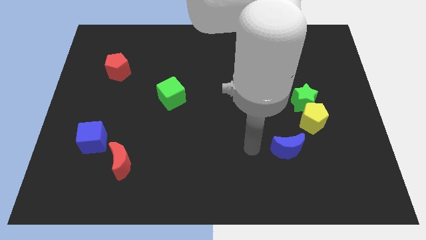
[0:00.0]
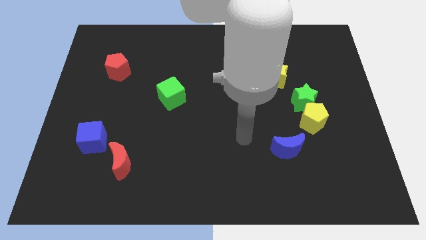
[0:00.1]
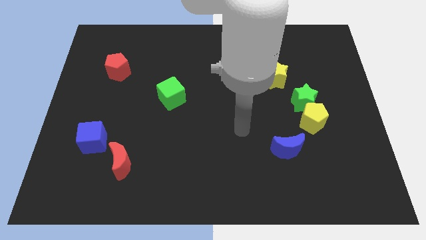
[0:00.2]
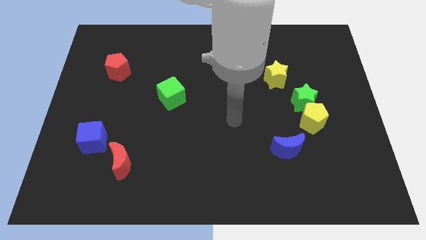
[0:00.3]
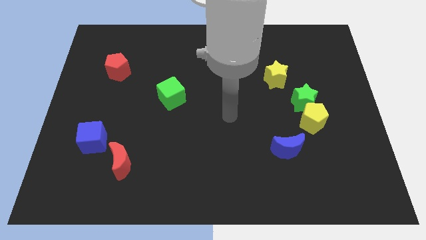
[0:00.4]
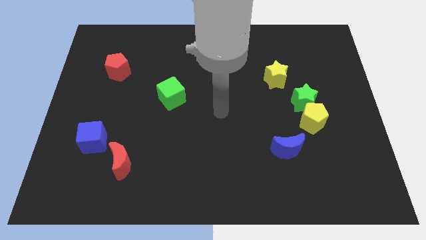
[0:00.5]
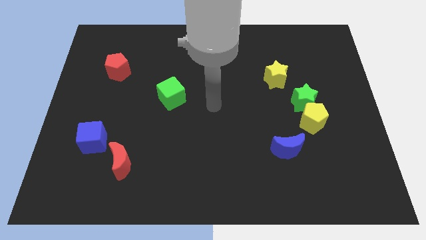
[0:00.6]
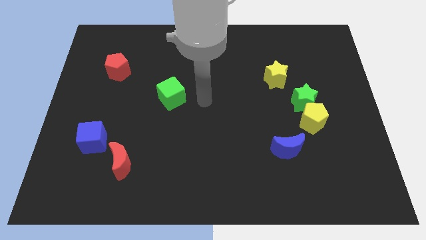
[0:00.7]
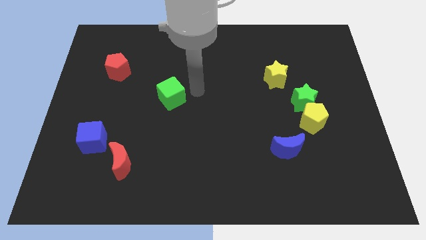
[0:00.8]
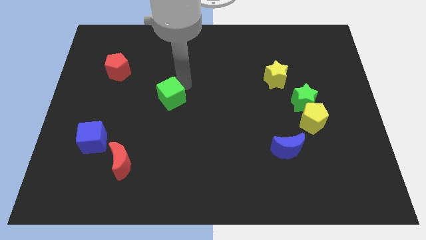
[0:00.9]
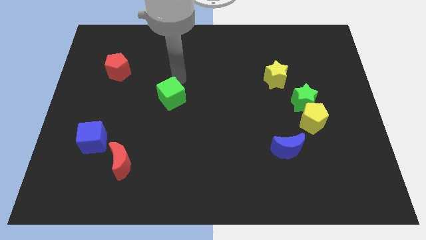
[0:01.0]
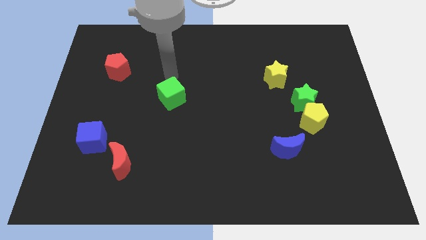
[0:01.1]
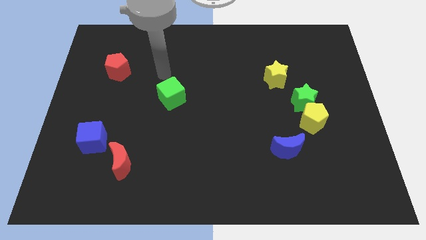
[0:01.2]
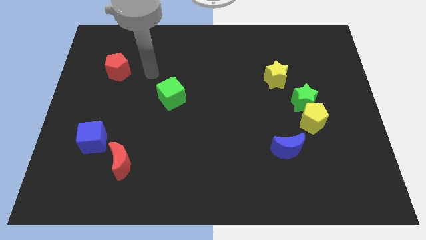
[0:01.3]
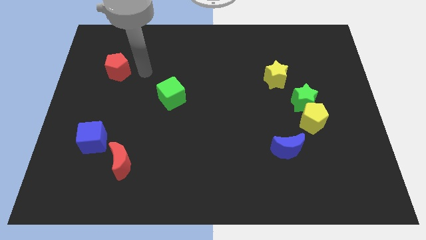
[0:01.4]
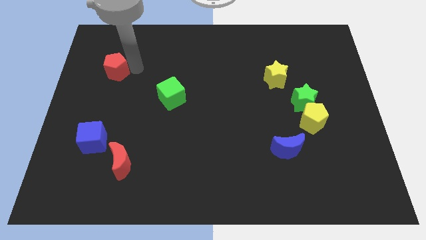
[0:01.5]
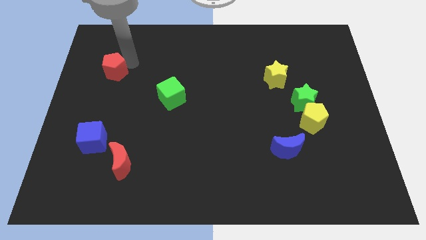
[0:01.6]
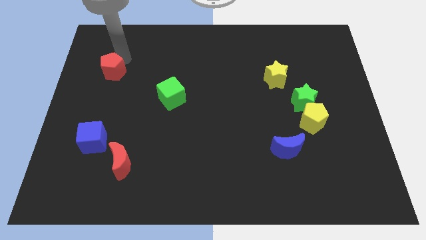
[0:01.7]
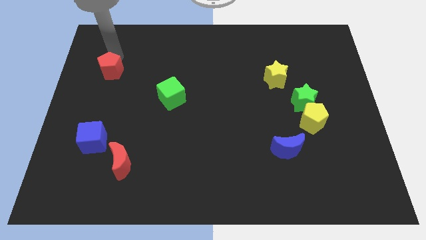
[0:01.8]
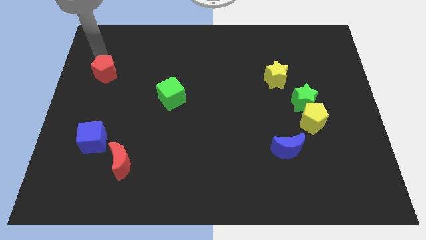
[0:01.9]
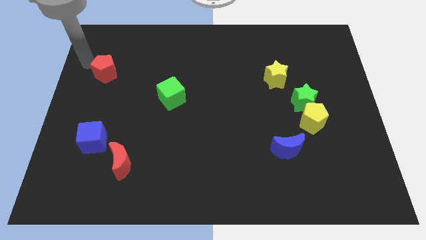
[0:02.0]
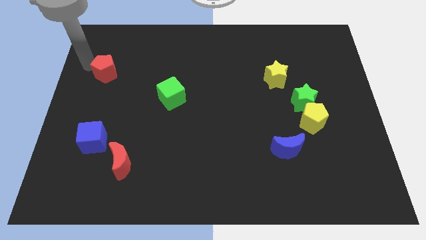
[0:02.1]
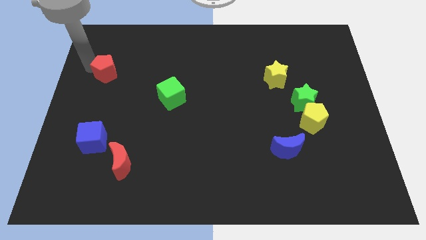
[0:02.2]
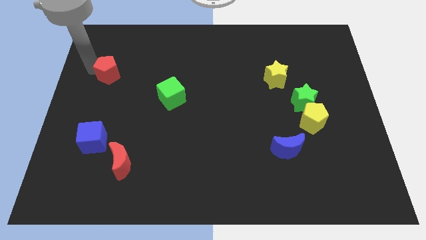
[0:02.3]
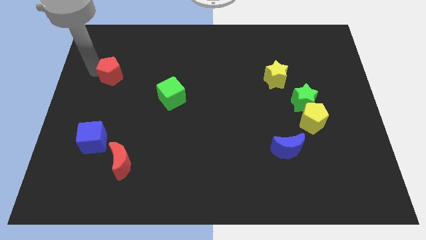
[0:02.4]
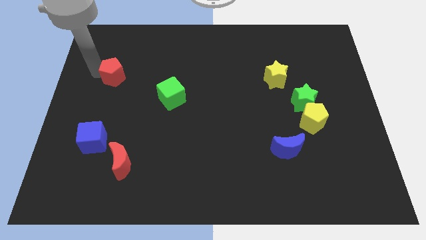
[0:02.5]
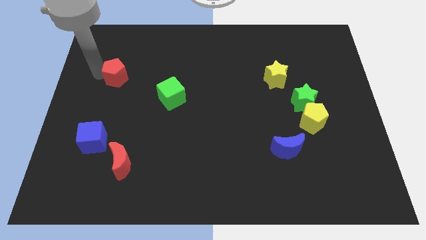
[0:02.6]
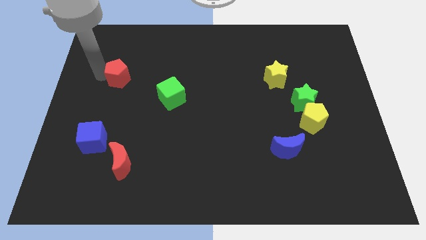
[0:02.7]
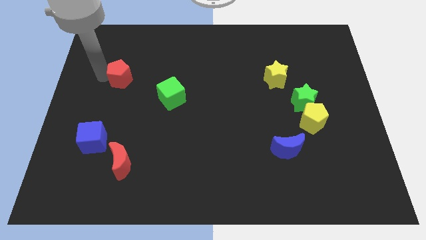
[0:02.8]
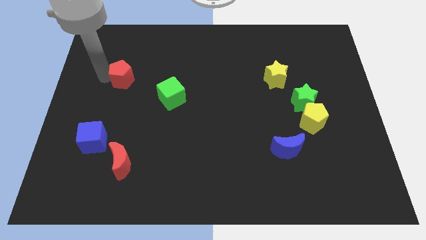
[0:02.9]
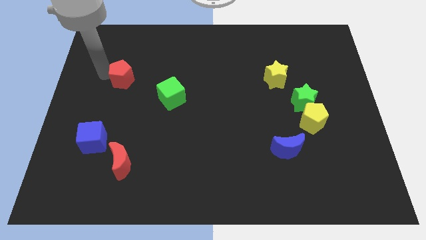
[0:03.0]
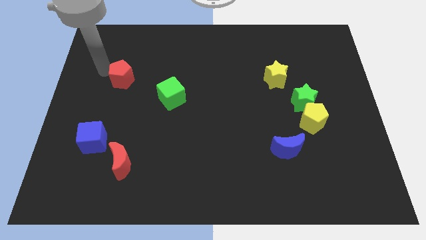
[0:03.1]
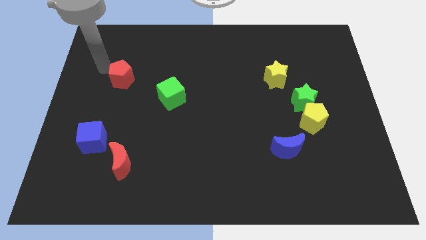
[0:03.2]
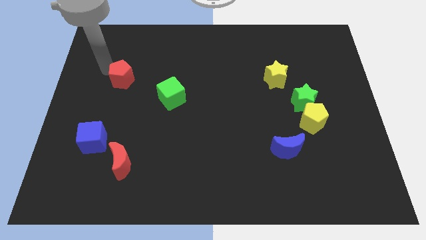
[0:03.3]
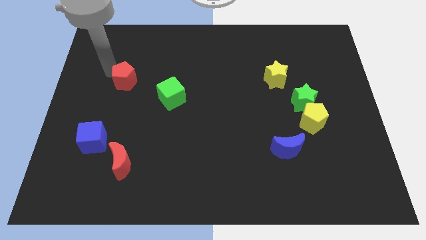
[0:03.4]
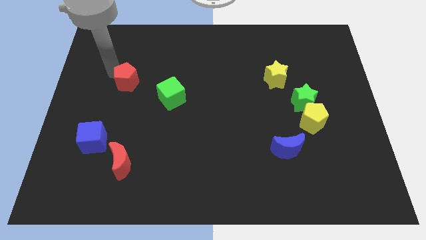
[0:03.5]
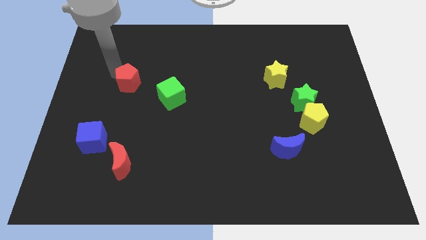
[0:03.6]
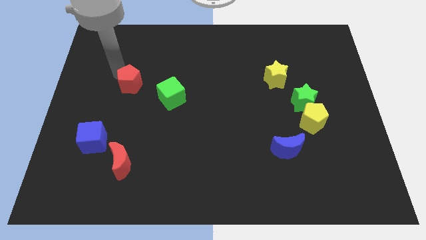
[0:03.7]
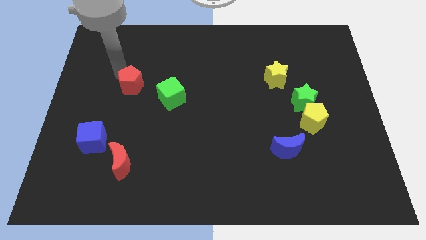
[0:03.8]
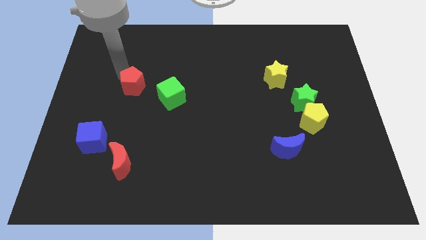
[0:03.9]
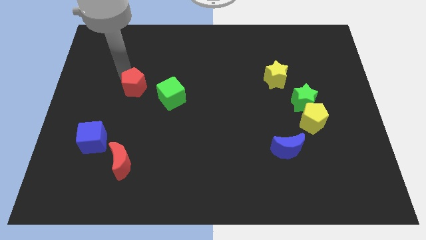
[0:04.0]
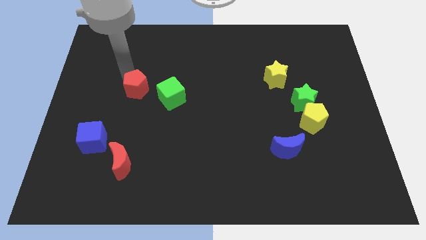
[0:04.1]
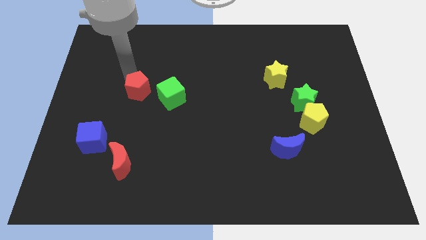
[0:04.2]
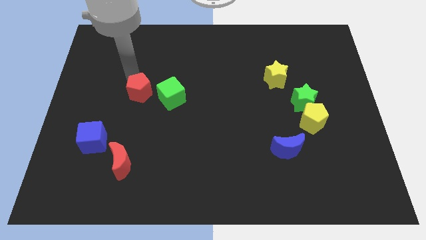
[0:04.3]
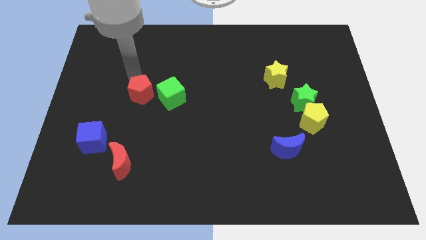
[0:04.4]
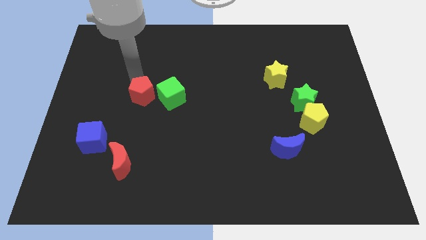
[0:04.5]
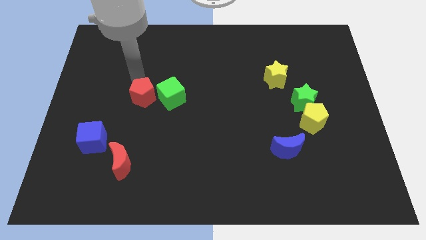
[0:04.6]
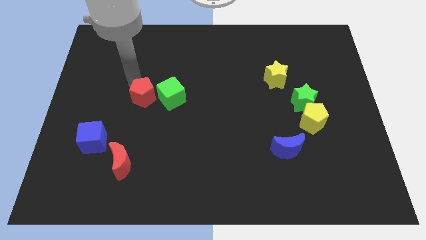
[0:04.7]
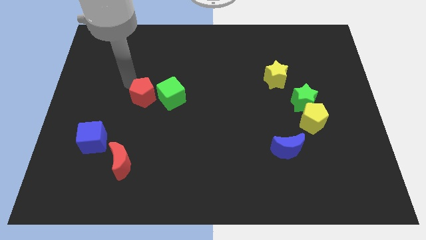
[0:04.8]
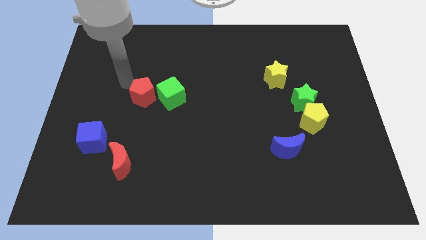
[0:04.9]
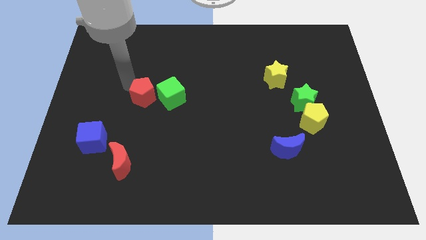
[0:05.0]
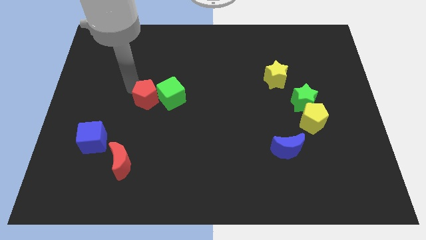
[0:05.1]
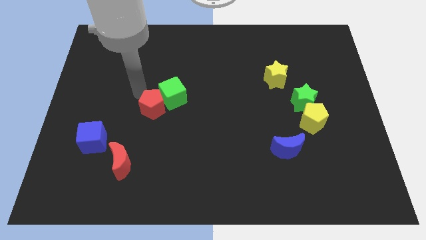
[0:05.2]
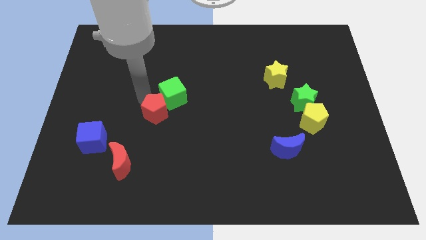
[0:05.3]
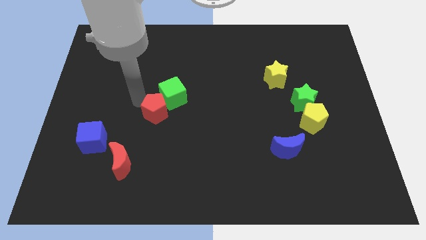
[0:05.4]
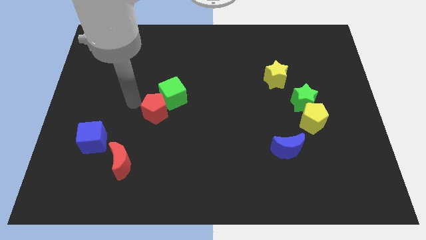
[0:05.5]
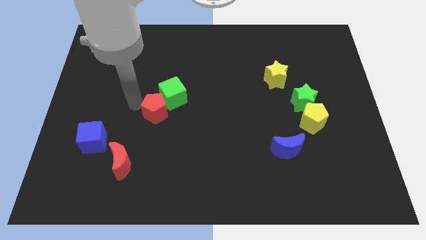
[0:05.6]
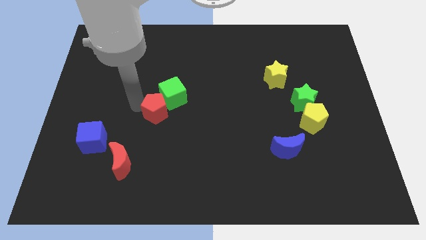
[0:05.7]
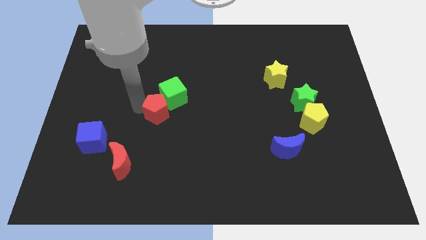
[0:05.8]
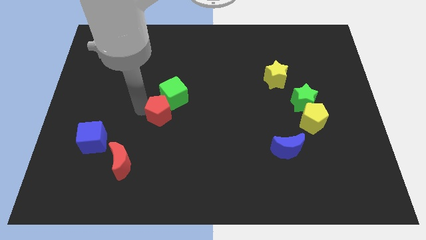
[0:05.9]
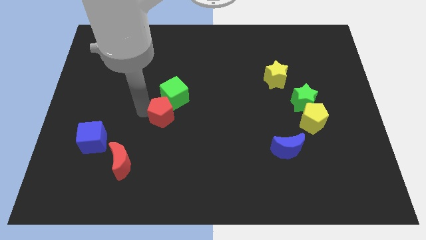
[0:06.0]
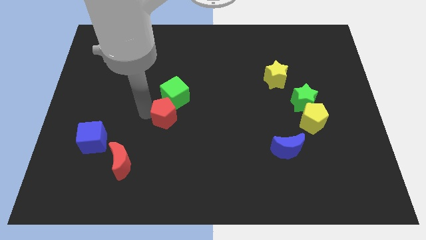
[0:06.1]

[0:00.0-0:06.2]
slide the red pentagon downwards and right diagonally

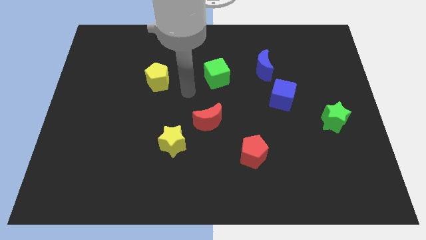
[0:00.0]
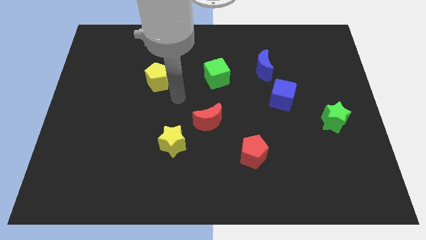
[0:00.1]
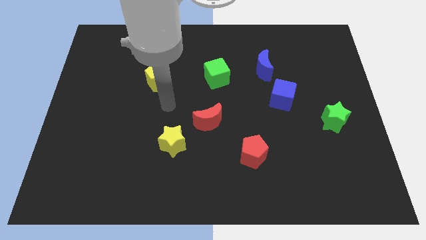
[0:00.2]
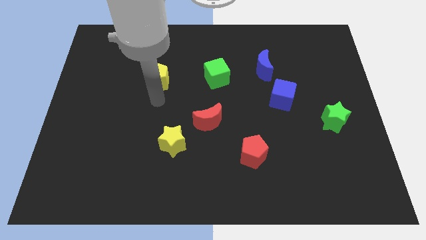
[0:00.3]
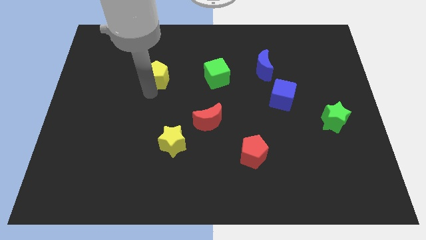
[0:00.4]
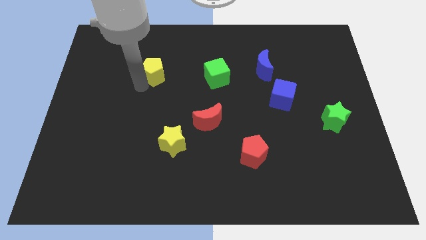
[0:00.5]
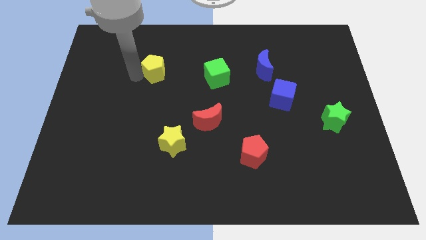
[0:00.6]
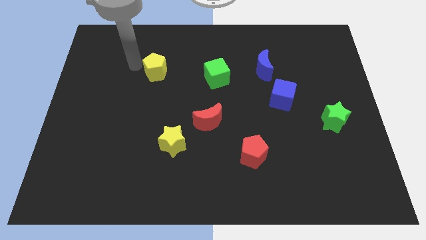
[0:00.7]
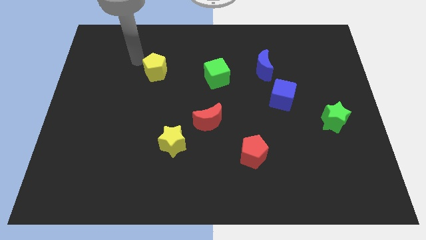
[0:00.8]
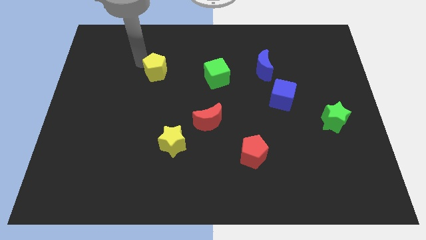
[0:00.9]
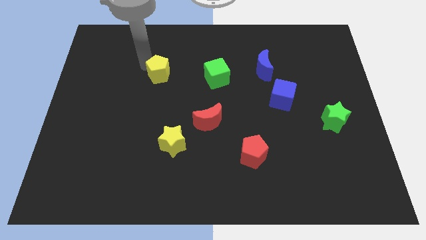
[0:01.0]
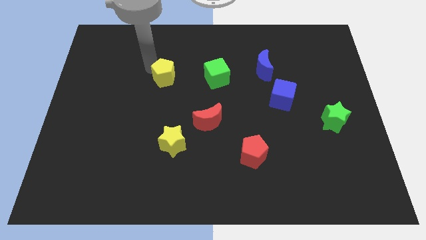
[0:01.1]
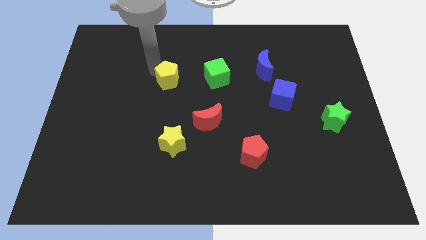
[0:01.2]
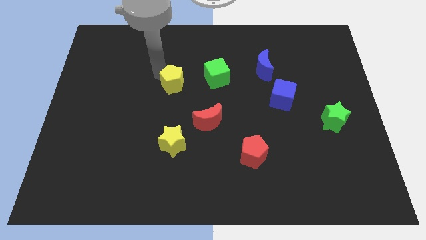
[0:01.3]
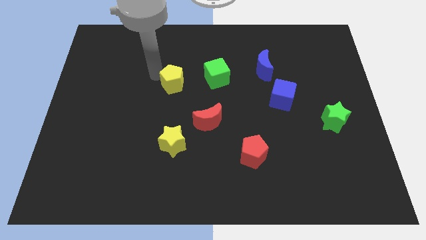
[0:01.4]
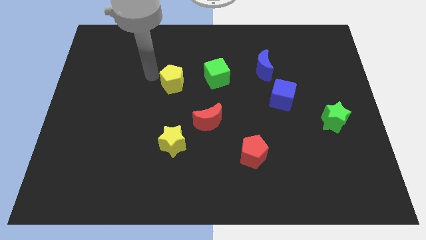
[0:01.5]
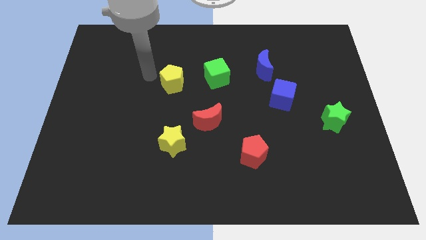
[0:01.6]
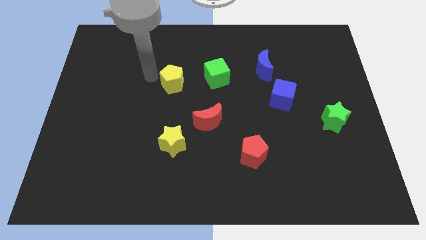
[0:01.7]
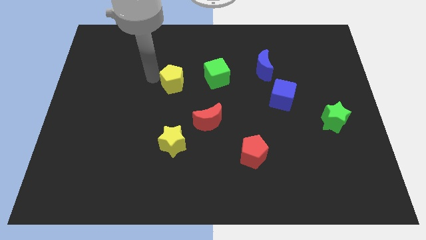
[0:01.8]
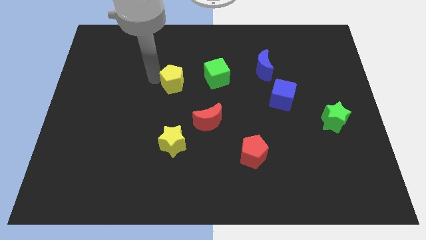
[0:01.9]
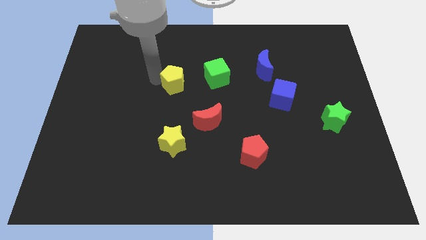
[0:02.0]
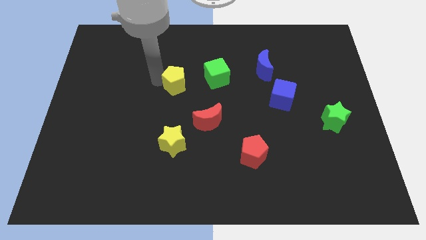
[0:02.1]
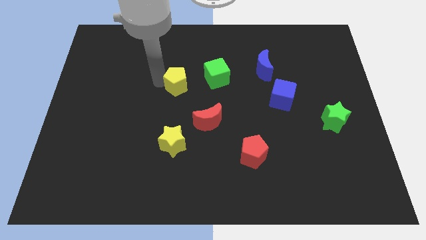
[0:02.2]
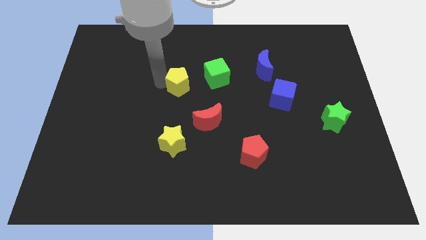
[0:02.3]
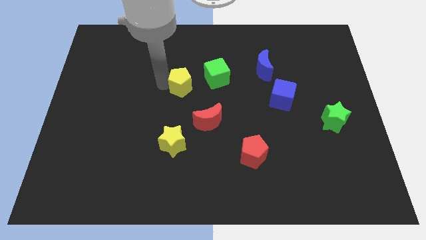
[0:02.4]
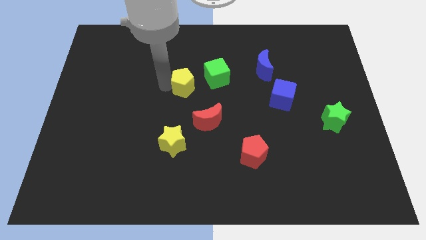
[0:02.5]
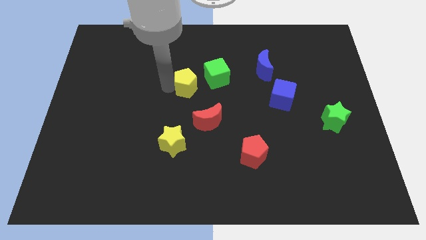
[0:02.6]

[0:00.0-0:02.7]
slide the yellow pentagon somewhat right
